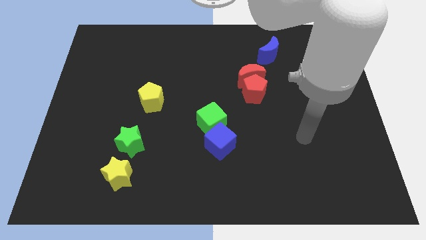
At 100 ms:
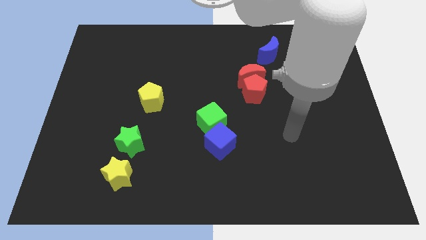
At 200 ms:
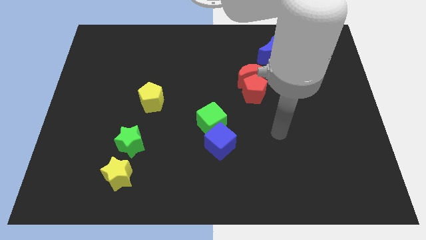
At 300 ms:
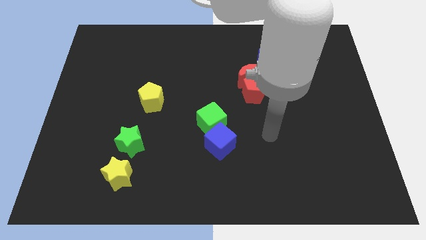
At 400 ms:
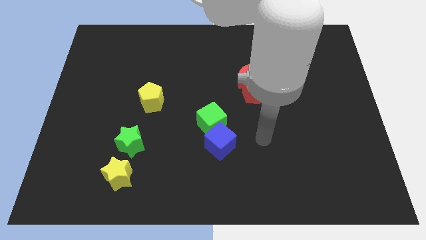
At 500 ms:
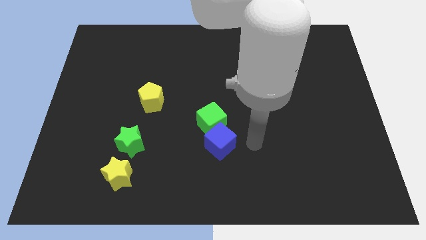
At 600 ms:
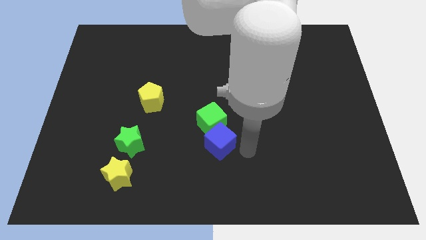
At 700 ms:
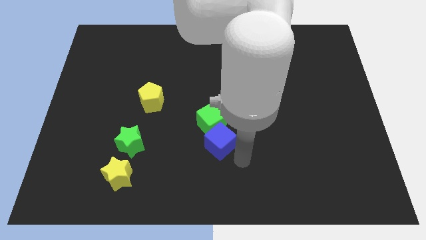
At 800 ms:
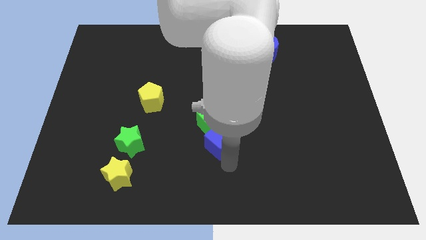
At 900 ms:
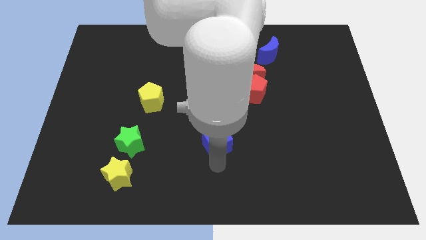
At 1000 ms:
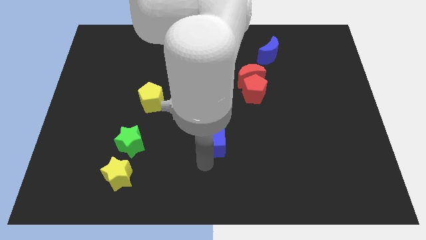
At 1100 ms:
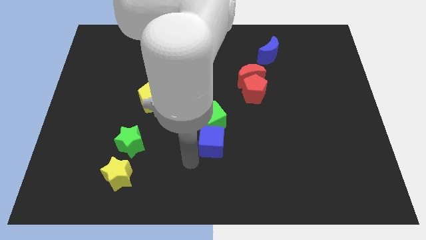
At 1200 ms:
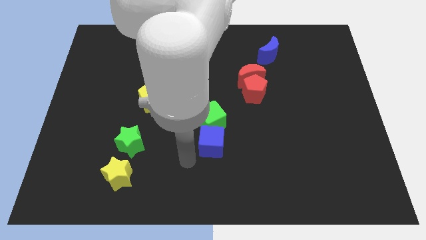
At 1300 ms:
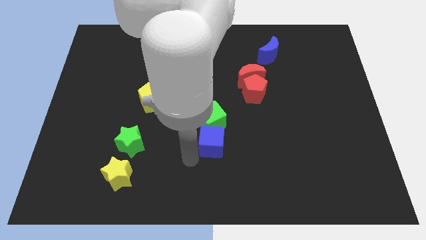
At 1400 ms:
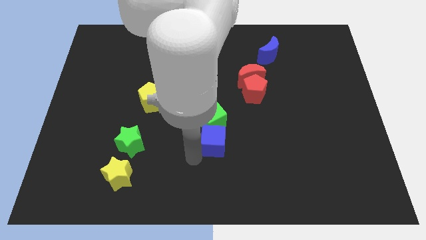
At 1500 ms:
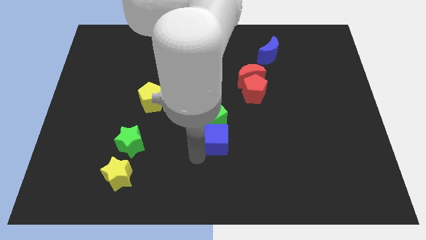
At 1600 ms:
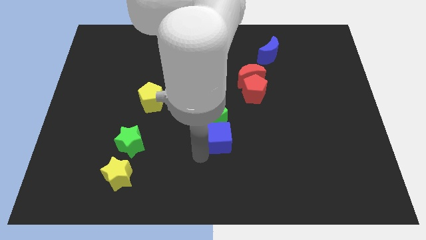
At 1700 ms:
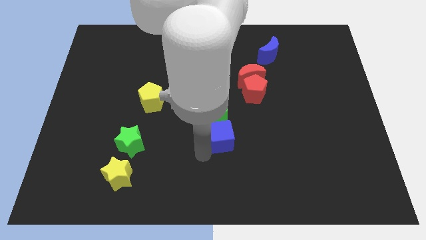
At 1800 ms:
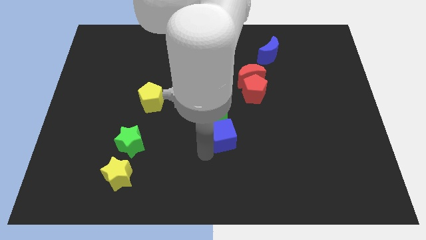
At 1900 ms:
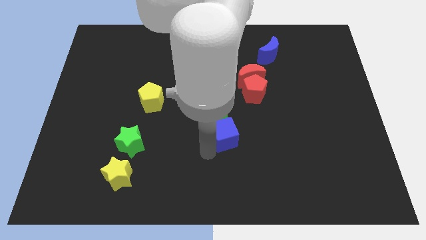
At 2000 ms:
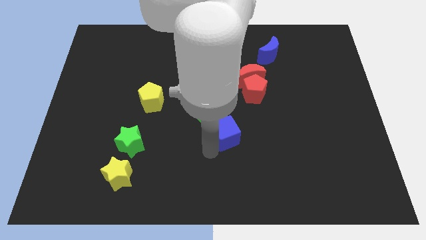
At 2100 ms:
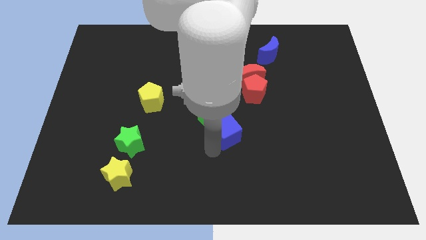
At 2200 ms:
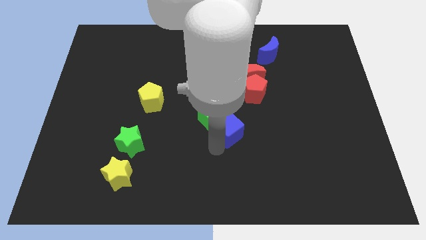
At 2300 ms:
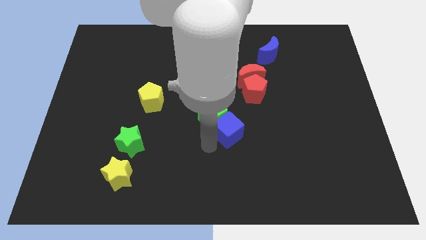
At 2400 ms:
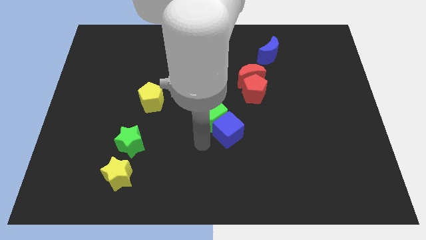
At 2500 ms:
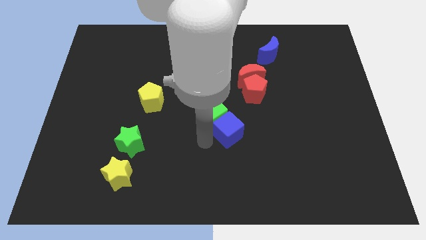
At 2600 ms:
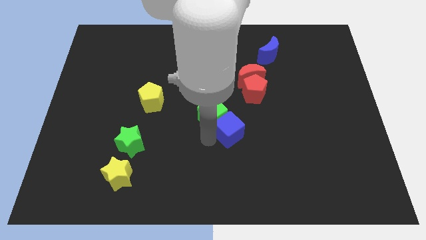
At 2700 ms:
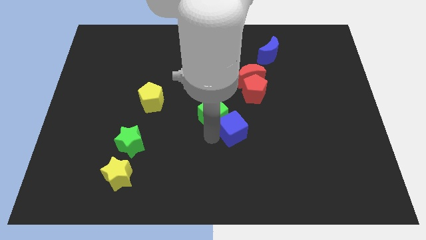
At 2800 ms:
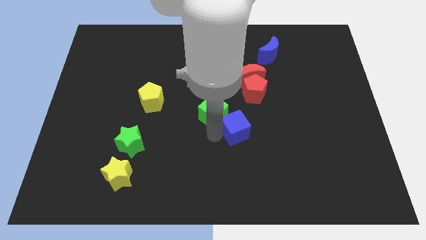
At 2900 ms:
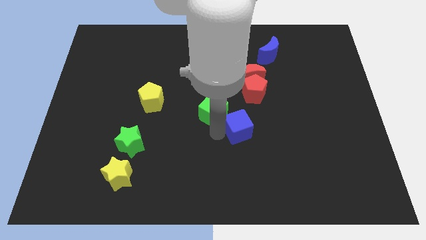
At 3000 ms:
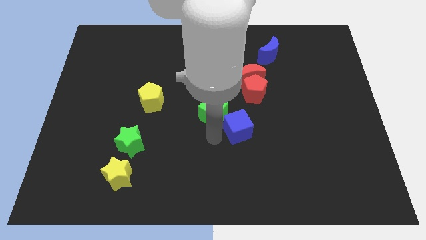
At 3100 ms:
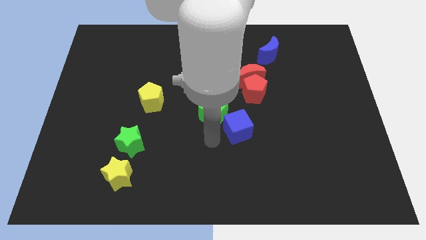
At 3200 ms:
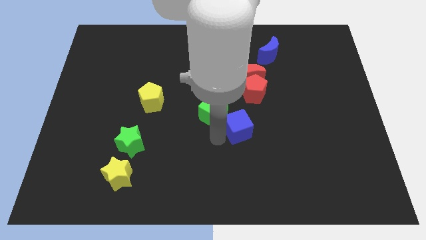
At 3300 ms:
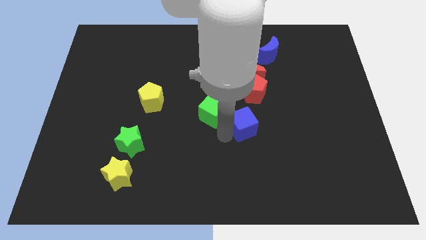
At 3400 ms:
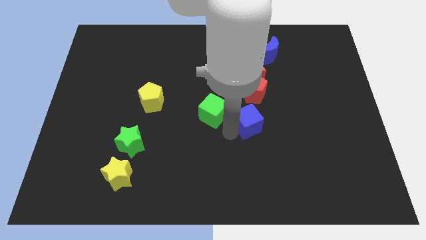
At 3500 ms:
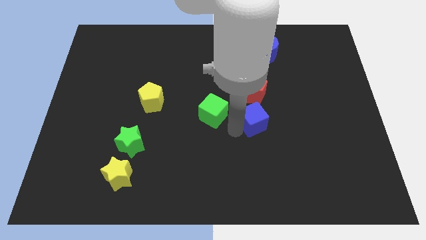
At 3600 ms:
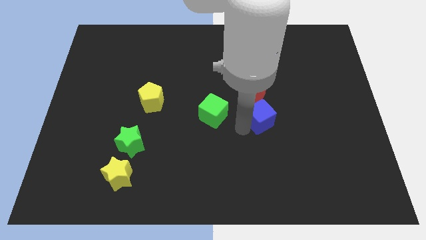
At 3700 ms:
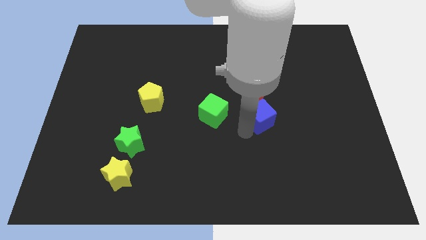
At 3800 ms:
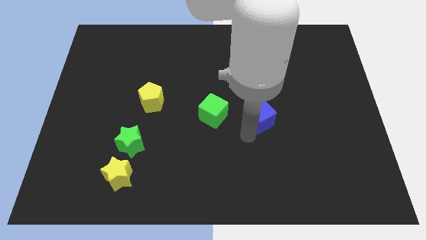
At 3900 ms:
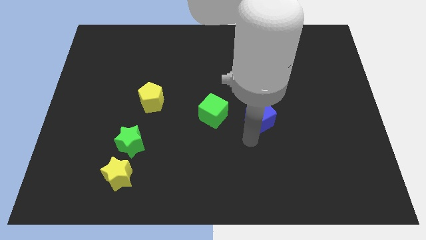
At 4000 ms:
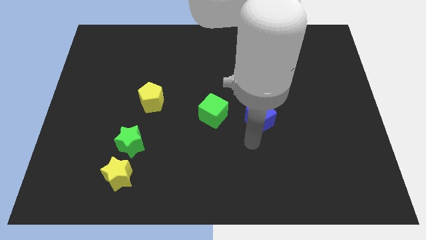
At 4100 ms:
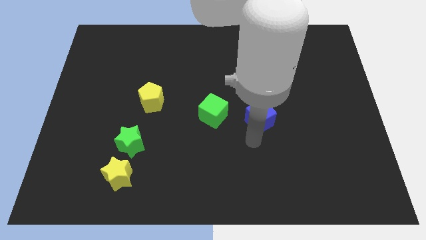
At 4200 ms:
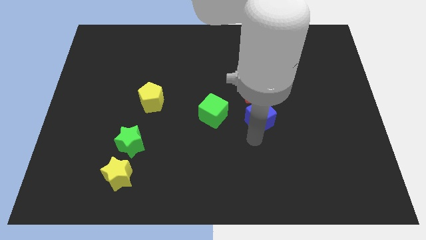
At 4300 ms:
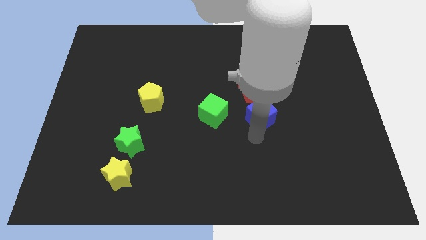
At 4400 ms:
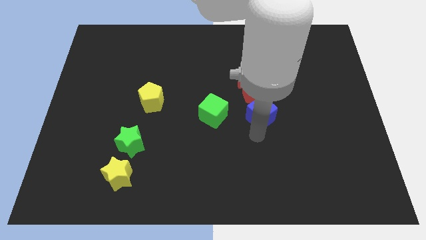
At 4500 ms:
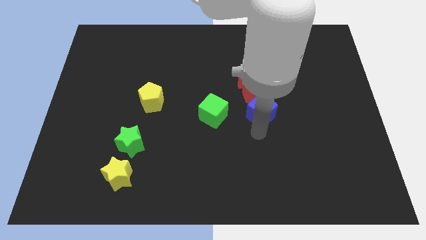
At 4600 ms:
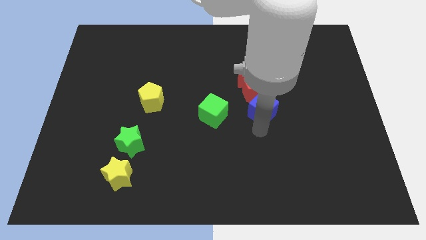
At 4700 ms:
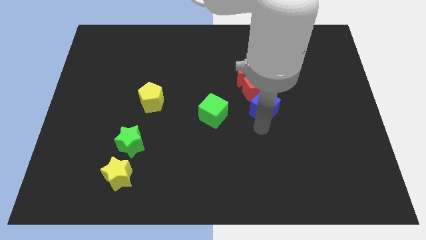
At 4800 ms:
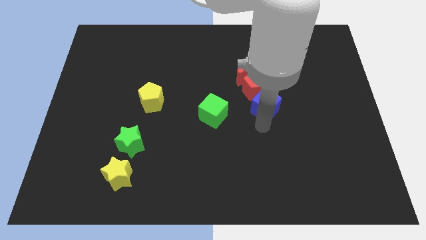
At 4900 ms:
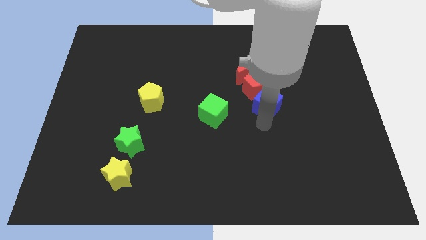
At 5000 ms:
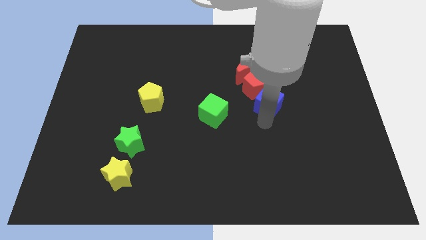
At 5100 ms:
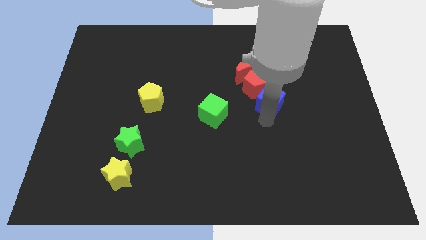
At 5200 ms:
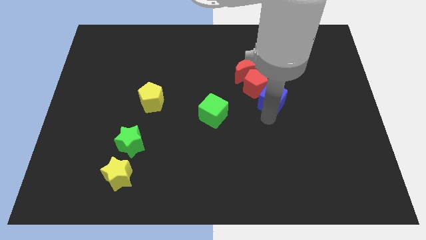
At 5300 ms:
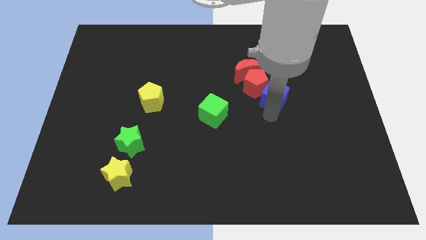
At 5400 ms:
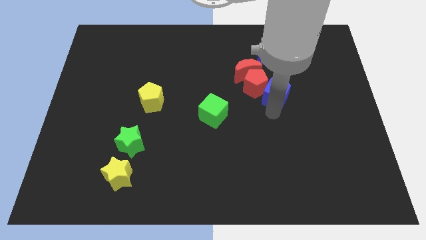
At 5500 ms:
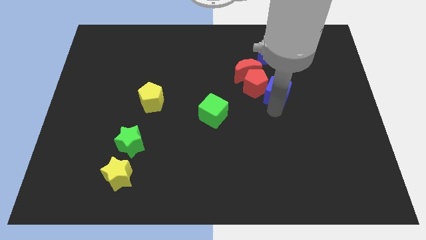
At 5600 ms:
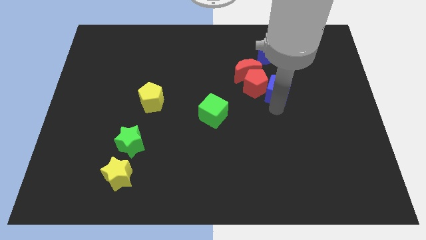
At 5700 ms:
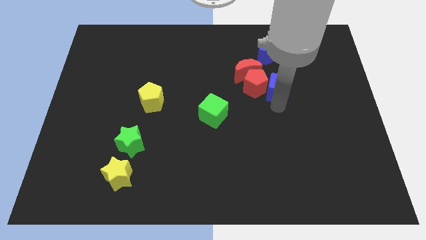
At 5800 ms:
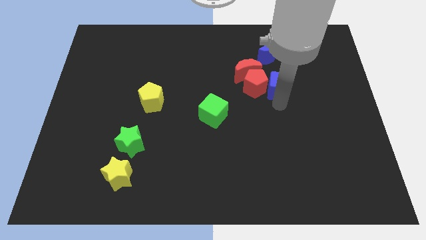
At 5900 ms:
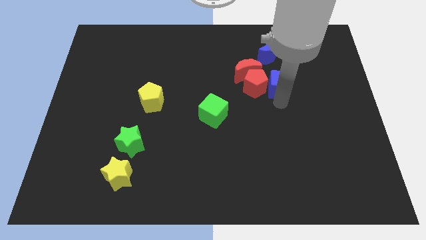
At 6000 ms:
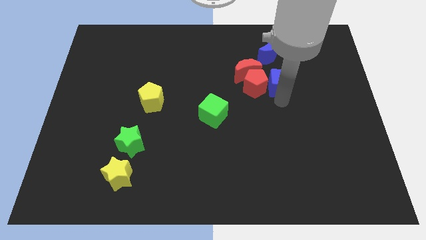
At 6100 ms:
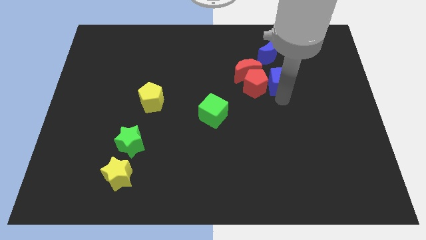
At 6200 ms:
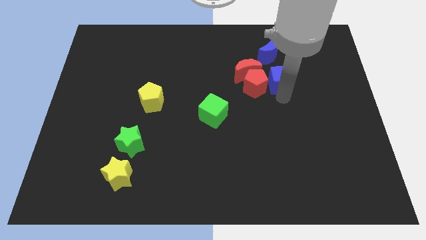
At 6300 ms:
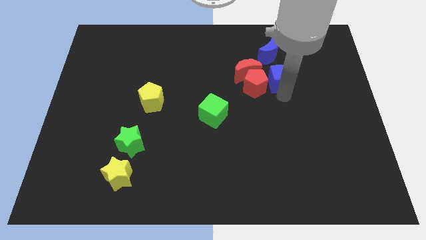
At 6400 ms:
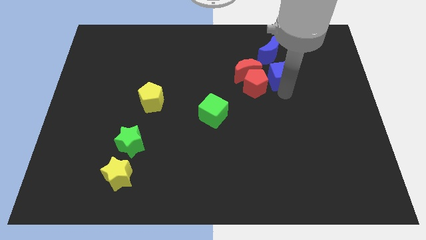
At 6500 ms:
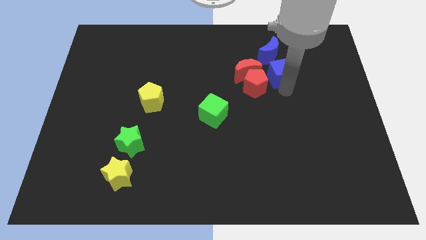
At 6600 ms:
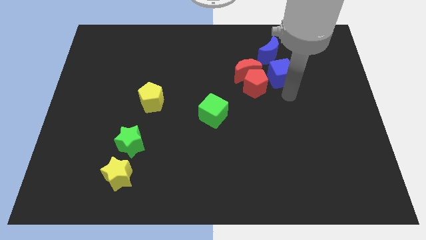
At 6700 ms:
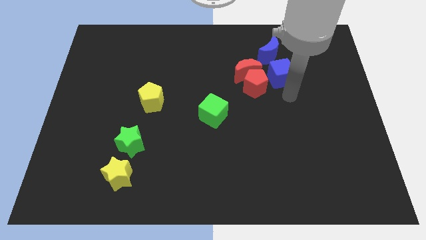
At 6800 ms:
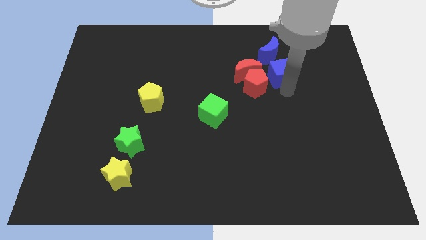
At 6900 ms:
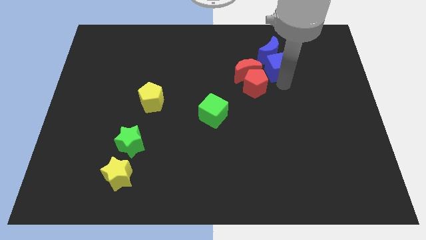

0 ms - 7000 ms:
slide the blue cube next to the blue moon

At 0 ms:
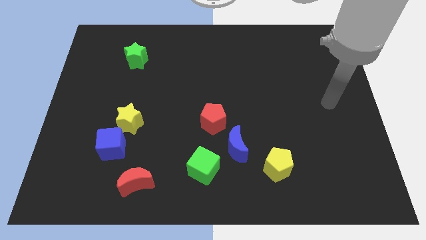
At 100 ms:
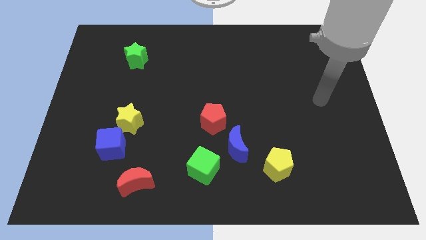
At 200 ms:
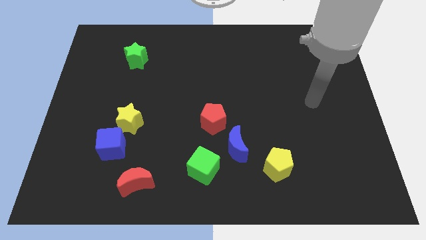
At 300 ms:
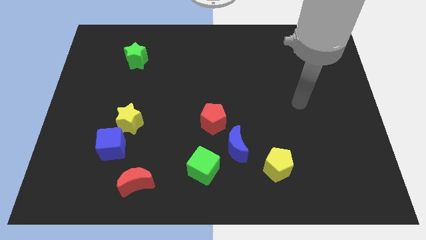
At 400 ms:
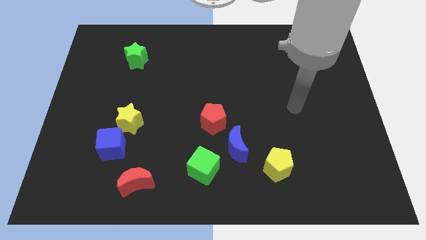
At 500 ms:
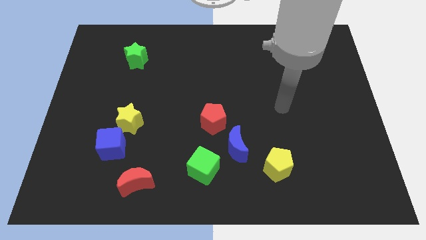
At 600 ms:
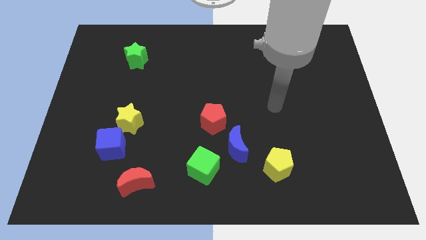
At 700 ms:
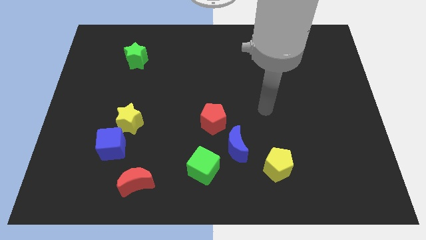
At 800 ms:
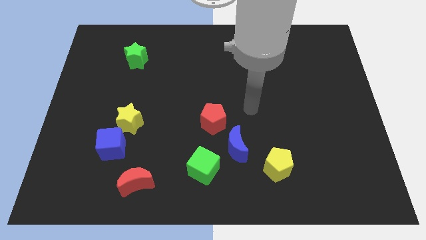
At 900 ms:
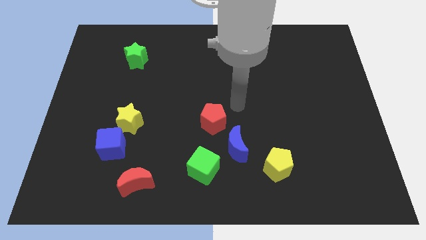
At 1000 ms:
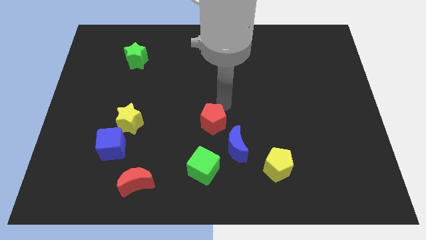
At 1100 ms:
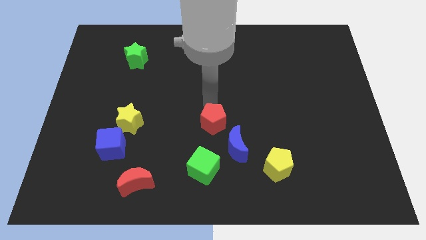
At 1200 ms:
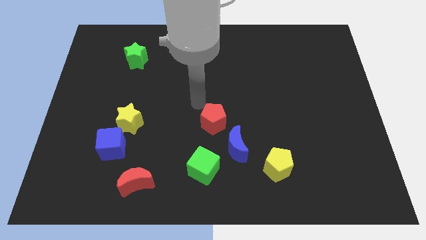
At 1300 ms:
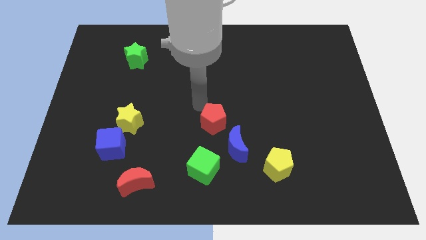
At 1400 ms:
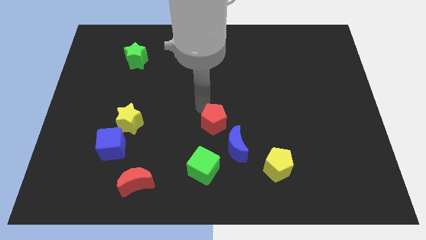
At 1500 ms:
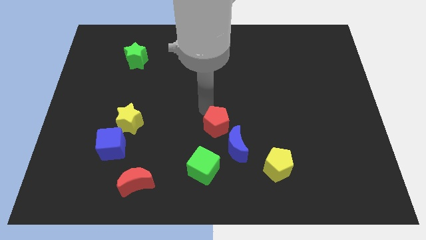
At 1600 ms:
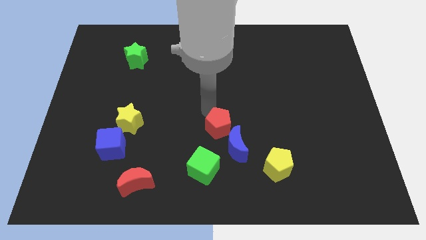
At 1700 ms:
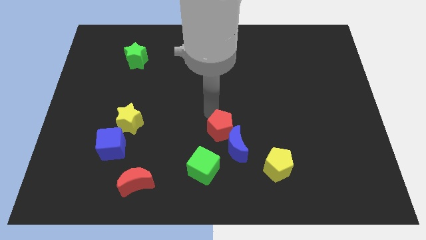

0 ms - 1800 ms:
push the red pentagon to the blue moon
